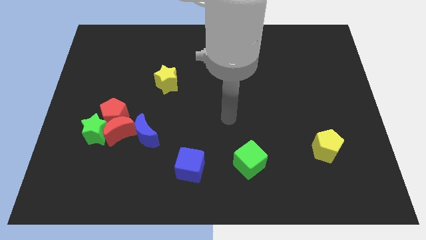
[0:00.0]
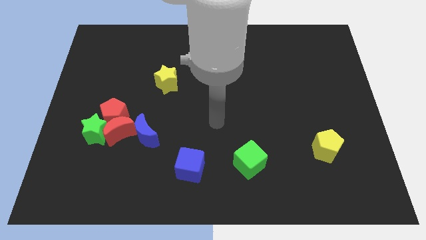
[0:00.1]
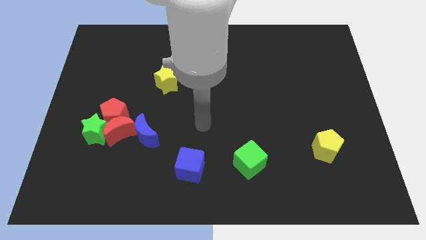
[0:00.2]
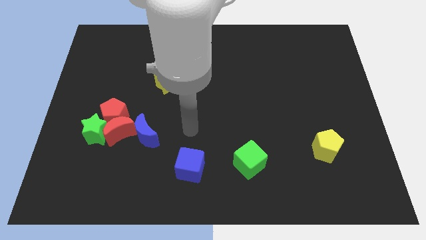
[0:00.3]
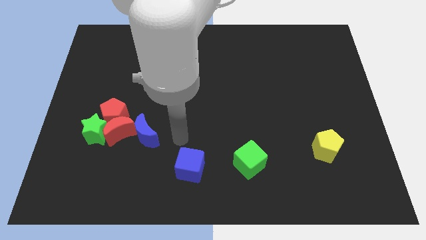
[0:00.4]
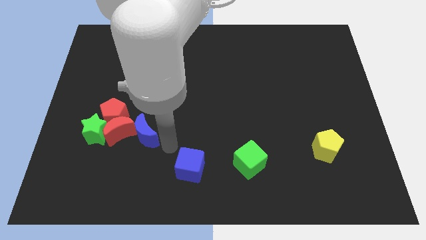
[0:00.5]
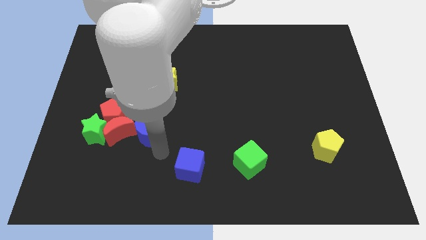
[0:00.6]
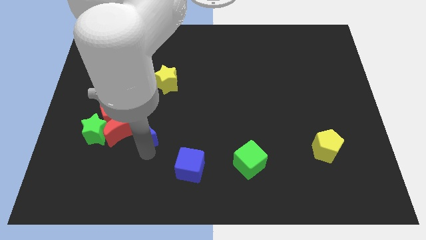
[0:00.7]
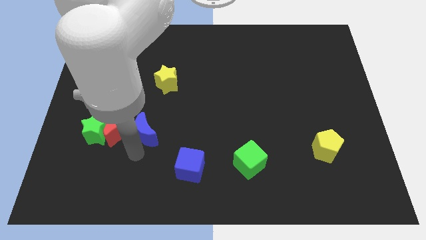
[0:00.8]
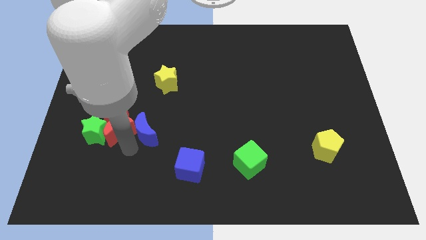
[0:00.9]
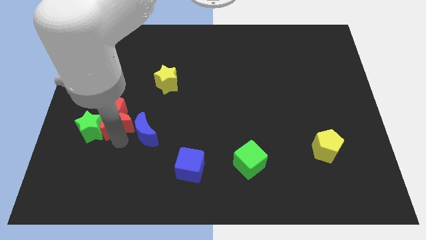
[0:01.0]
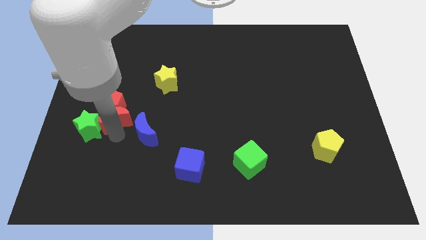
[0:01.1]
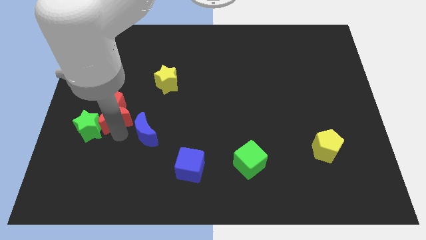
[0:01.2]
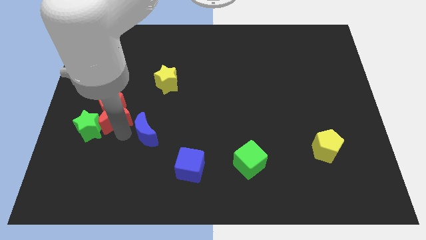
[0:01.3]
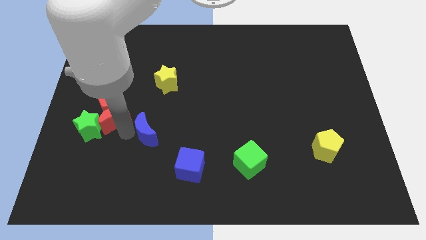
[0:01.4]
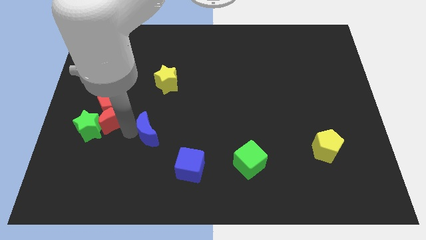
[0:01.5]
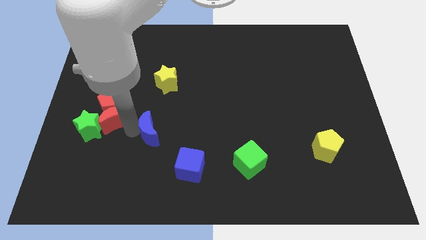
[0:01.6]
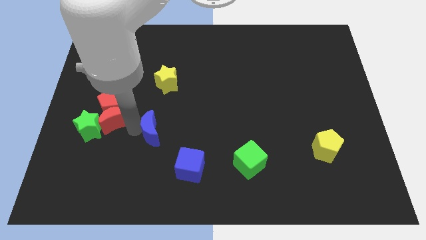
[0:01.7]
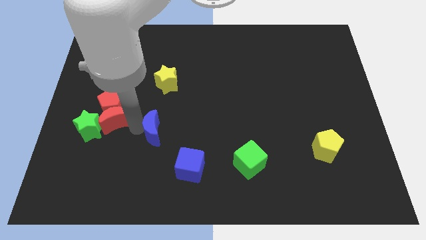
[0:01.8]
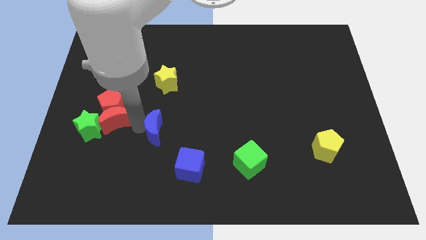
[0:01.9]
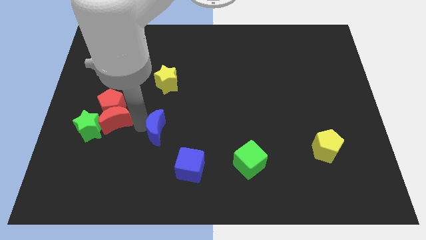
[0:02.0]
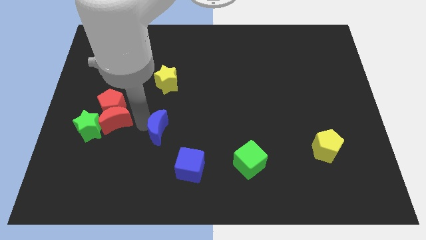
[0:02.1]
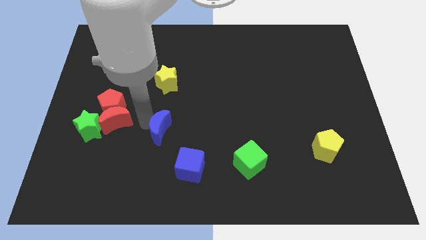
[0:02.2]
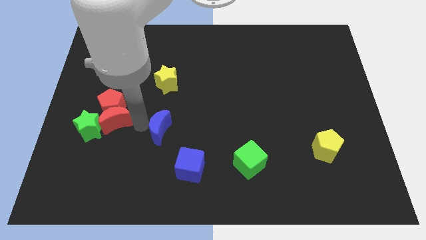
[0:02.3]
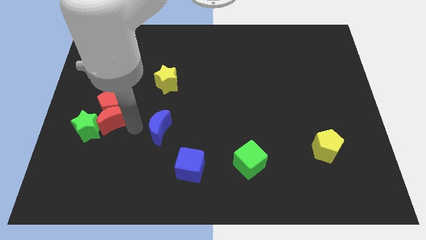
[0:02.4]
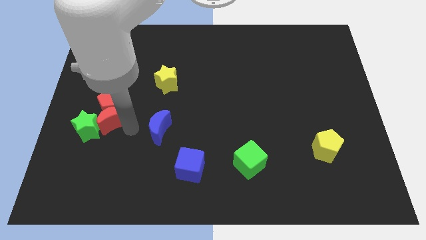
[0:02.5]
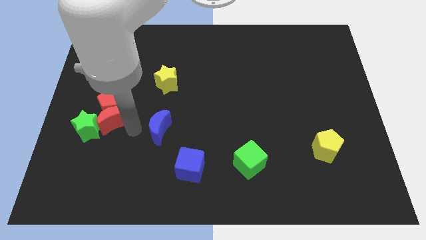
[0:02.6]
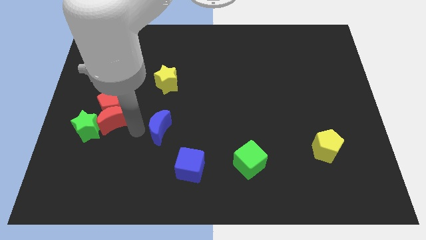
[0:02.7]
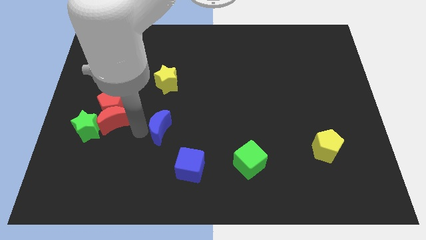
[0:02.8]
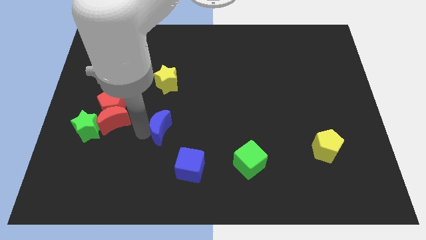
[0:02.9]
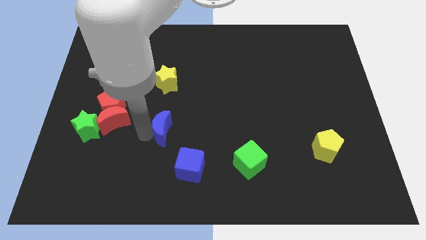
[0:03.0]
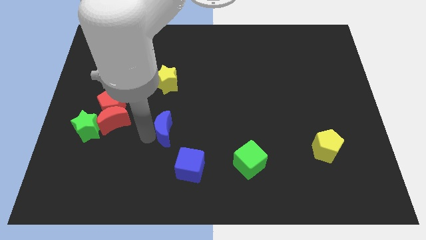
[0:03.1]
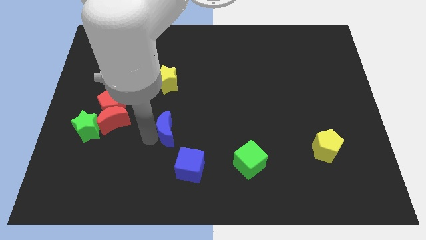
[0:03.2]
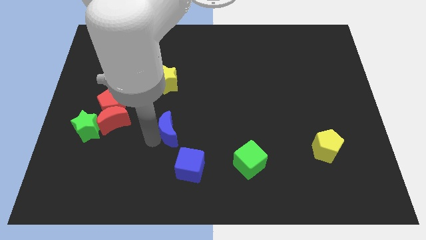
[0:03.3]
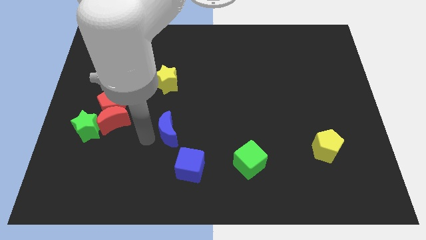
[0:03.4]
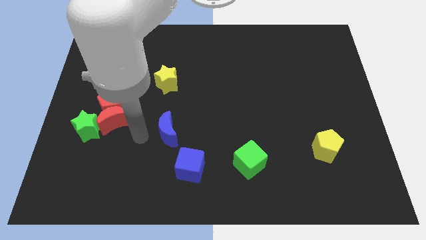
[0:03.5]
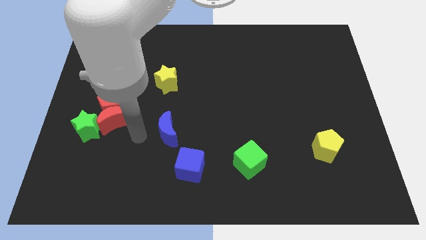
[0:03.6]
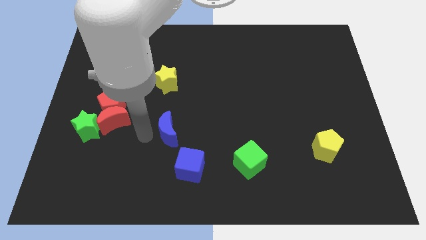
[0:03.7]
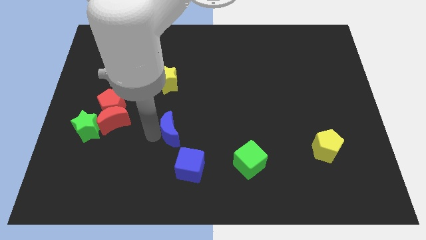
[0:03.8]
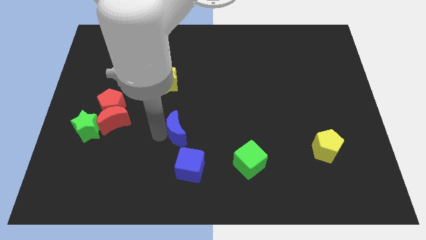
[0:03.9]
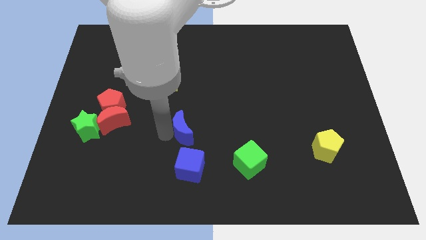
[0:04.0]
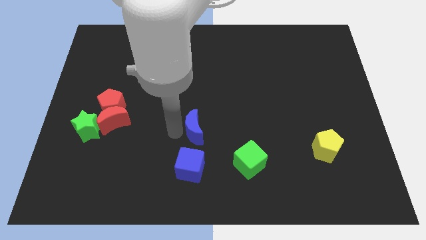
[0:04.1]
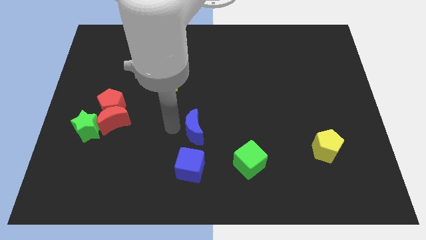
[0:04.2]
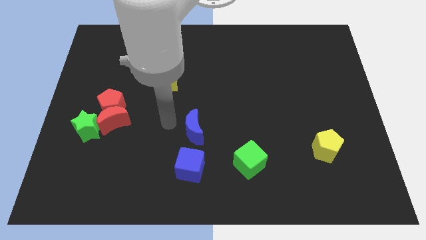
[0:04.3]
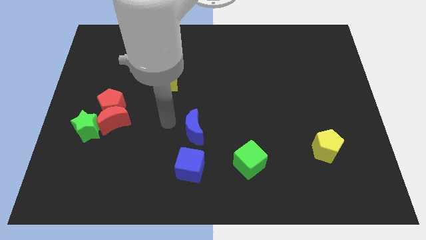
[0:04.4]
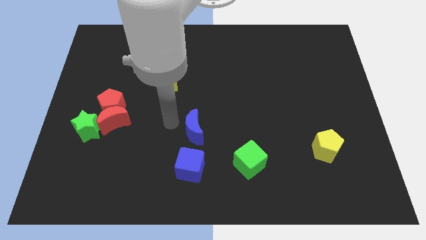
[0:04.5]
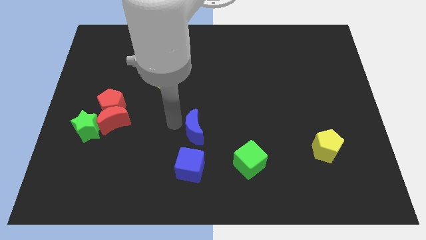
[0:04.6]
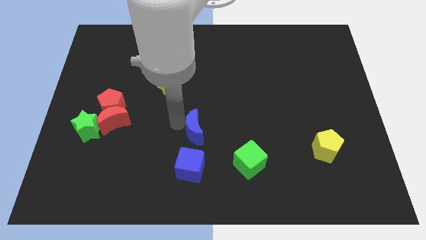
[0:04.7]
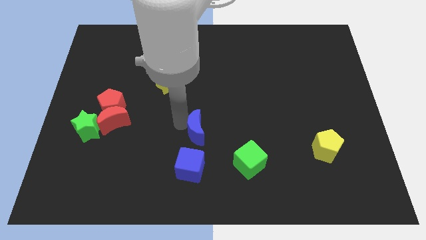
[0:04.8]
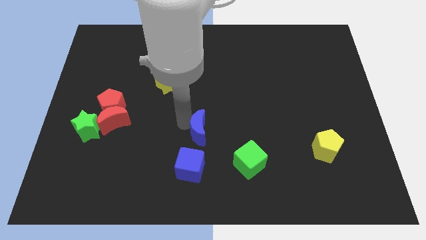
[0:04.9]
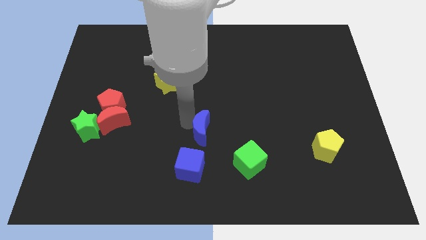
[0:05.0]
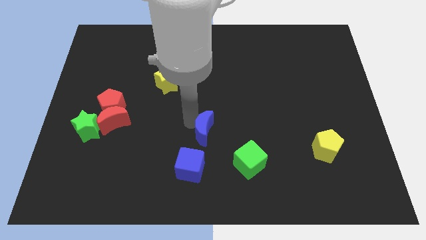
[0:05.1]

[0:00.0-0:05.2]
push the blue moon to the top left of the green cube

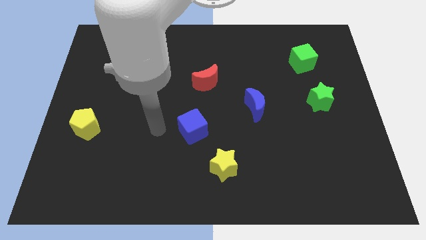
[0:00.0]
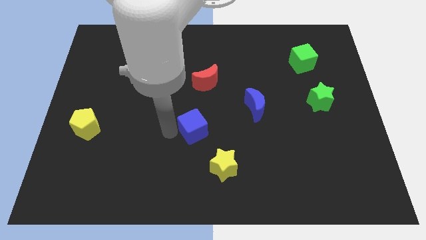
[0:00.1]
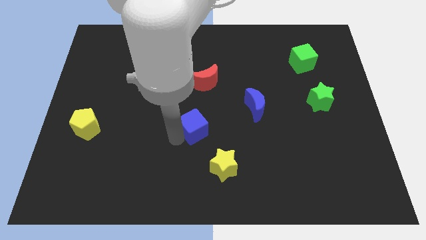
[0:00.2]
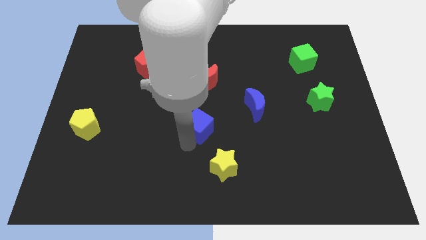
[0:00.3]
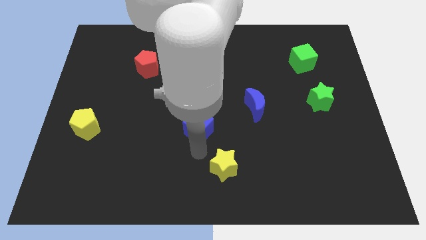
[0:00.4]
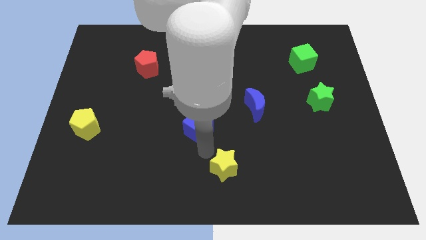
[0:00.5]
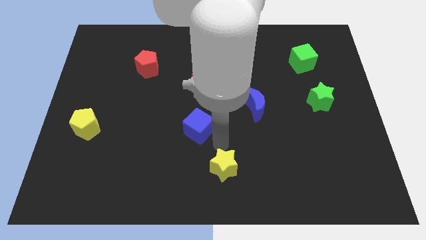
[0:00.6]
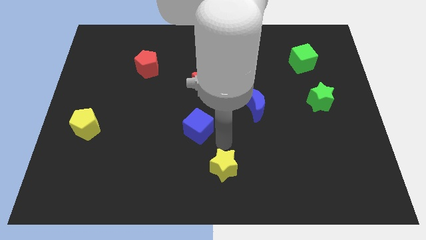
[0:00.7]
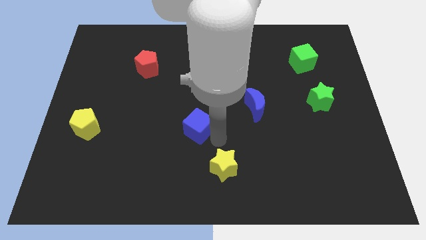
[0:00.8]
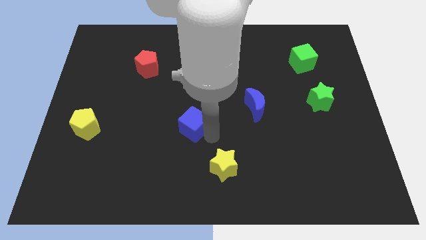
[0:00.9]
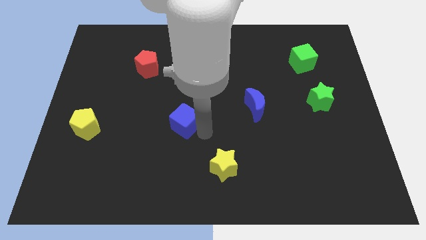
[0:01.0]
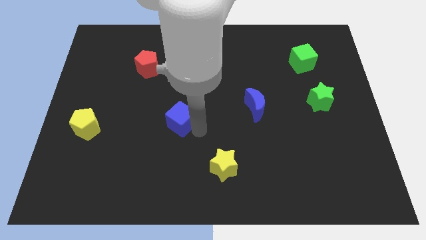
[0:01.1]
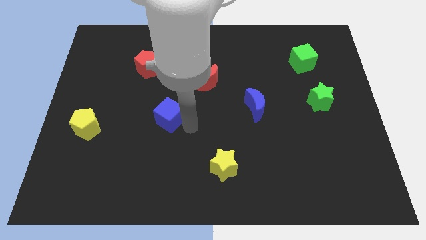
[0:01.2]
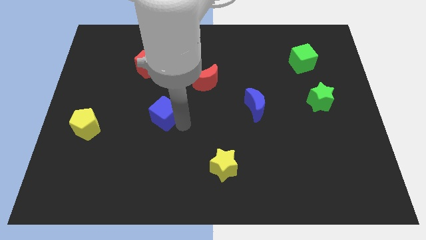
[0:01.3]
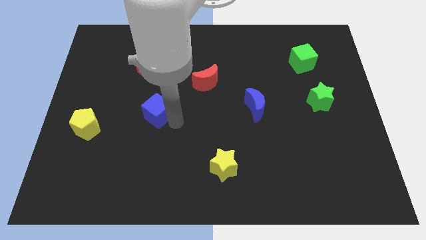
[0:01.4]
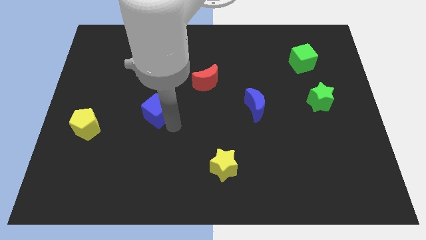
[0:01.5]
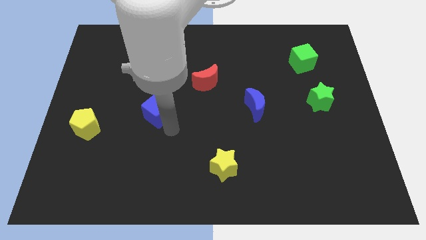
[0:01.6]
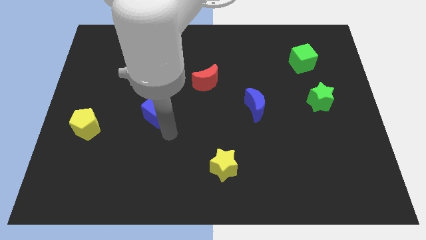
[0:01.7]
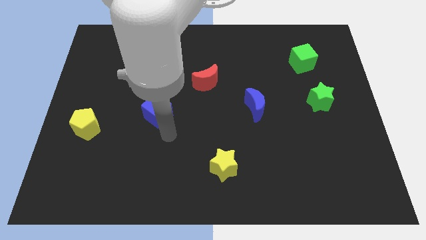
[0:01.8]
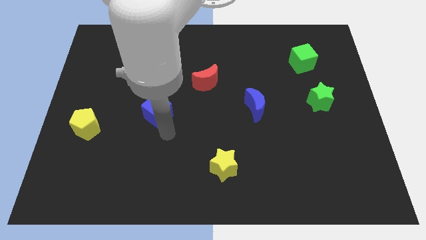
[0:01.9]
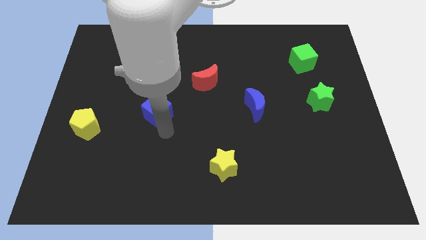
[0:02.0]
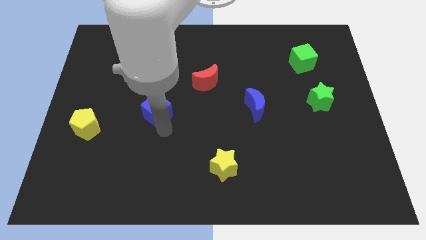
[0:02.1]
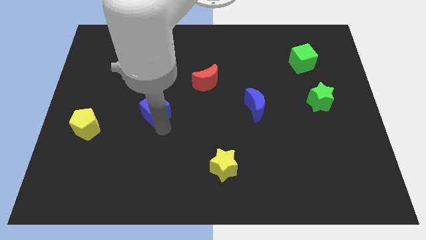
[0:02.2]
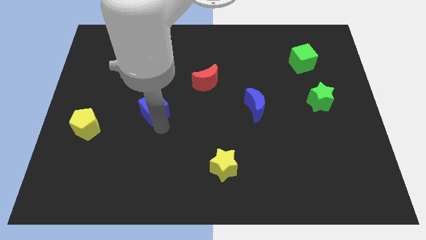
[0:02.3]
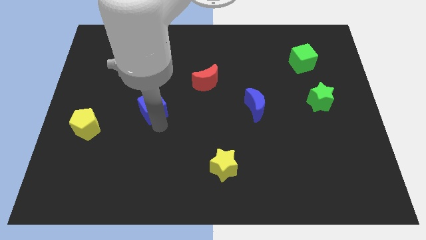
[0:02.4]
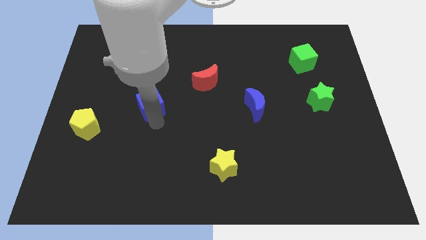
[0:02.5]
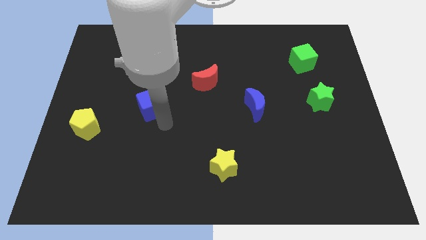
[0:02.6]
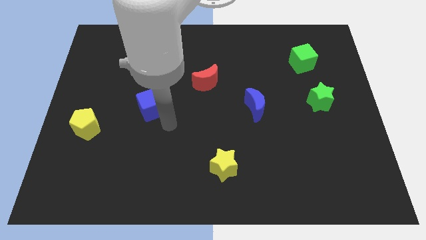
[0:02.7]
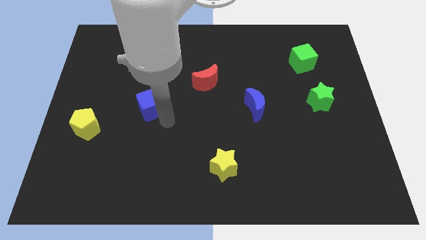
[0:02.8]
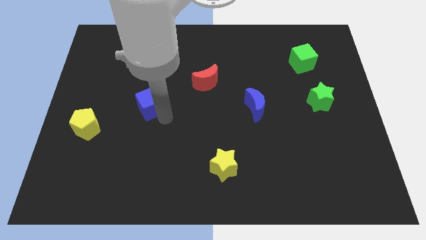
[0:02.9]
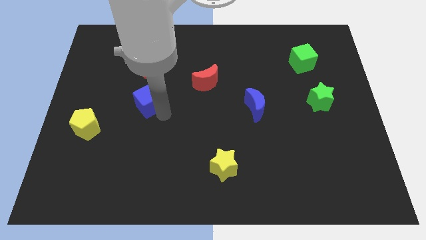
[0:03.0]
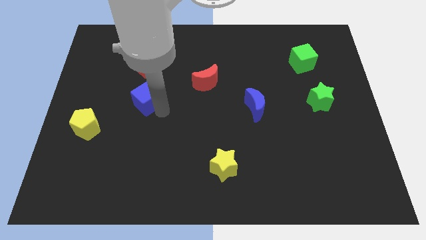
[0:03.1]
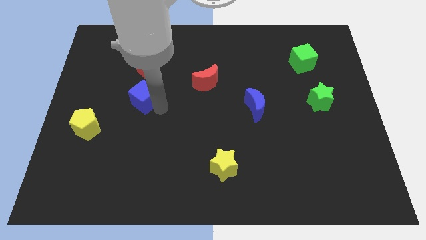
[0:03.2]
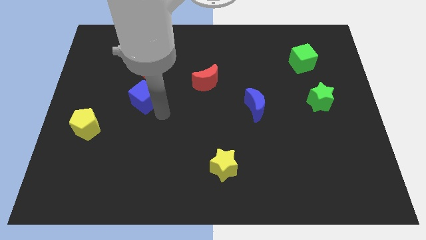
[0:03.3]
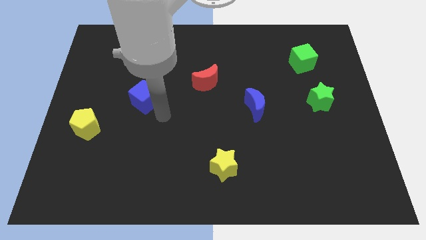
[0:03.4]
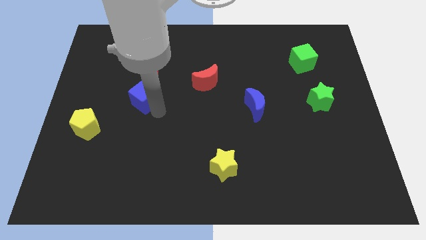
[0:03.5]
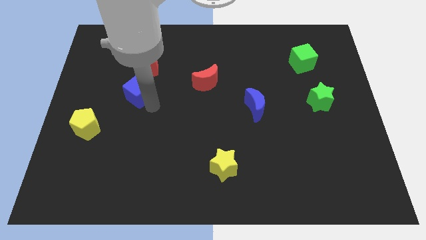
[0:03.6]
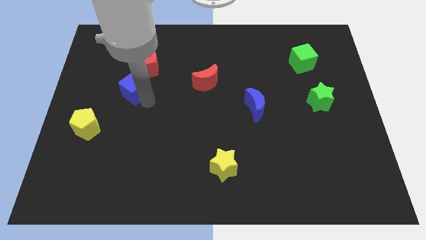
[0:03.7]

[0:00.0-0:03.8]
move the blue cube diagonally down and to the left of the red pentagon
